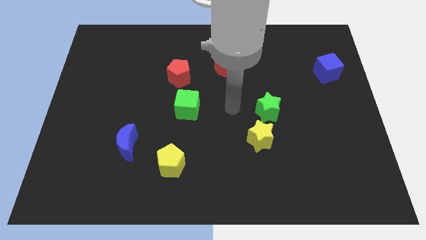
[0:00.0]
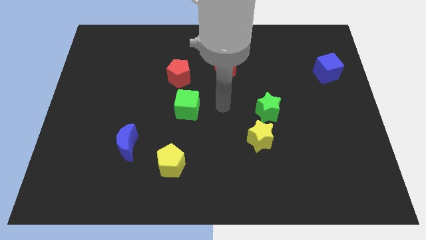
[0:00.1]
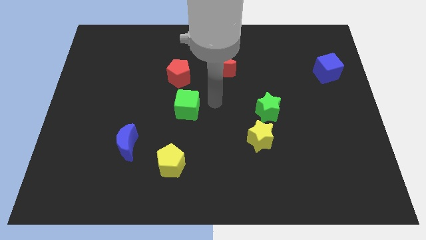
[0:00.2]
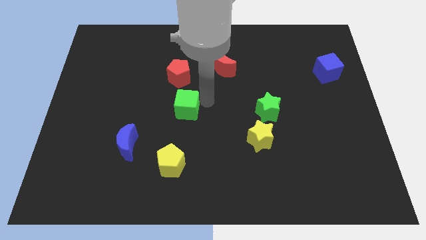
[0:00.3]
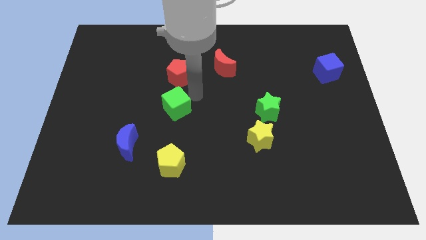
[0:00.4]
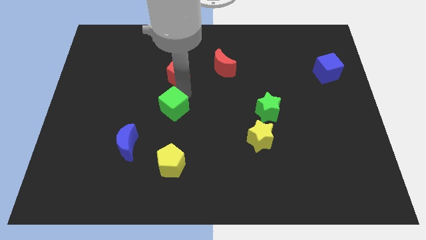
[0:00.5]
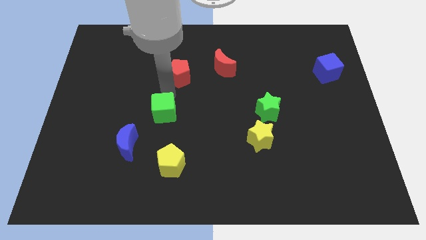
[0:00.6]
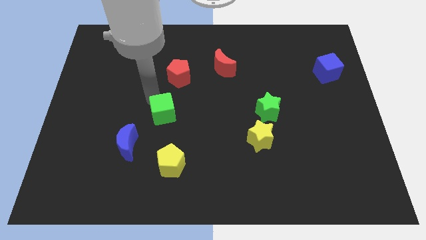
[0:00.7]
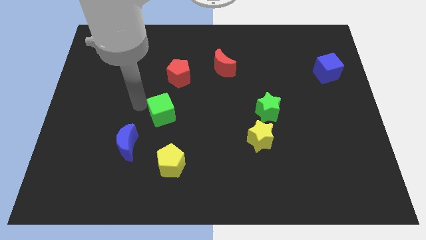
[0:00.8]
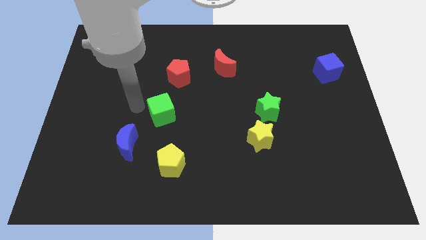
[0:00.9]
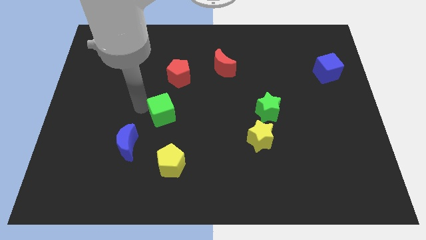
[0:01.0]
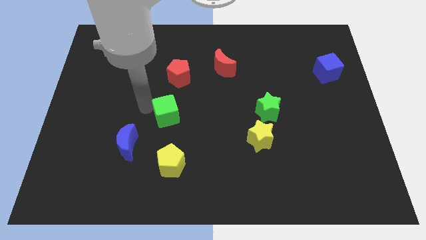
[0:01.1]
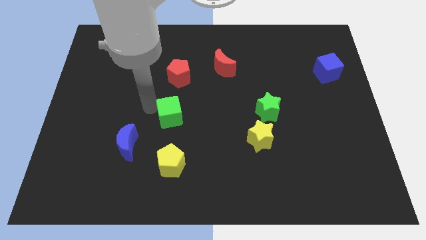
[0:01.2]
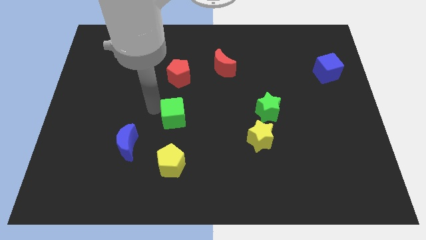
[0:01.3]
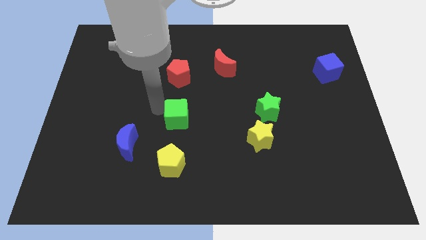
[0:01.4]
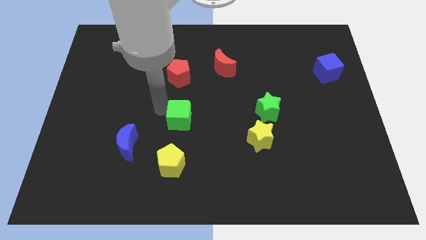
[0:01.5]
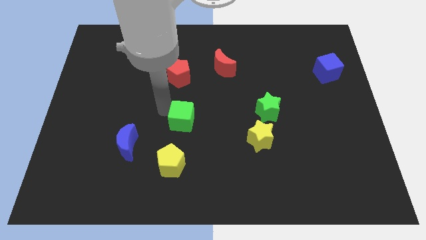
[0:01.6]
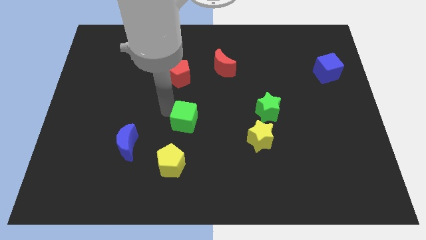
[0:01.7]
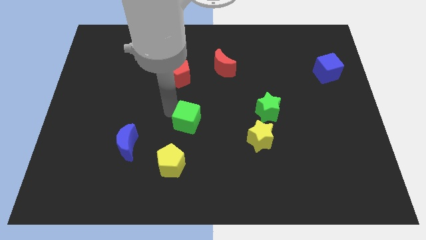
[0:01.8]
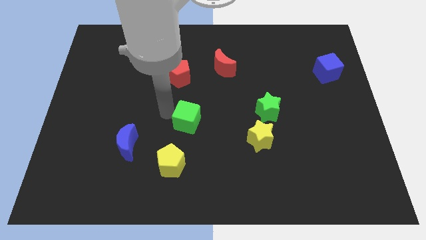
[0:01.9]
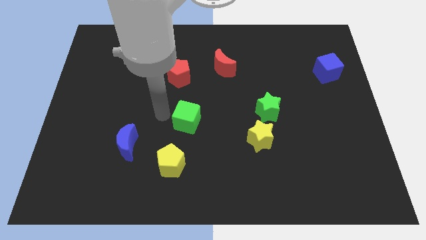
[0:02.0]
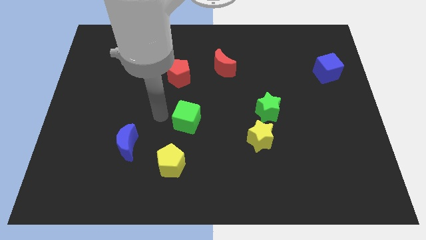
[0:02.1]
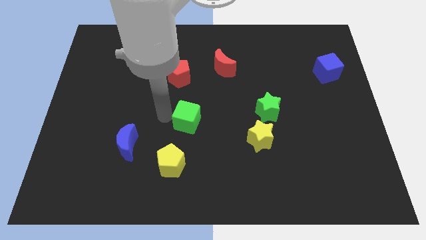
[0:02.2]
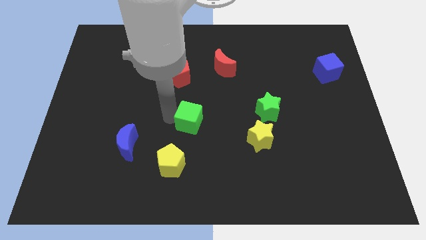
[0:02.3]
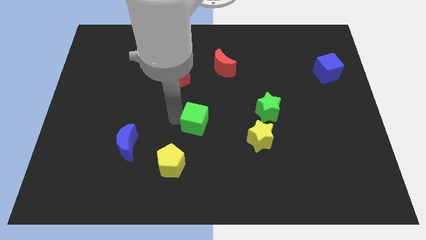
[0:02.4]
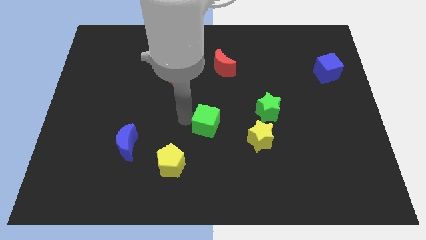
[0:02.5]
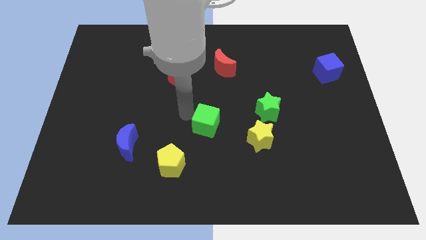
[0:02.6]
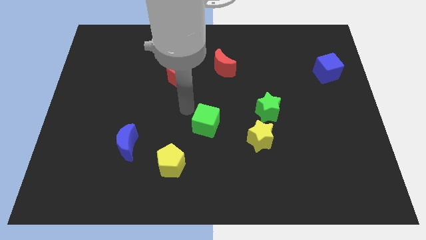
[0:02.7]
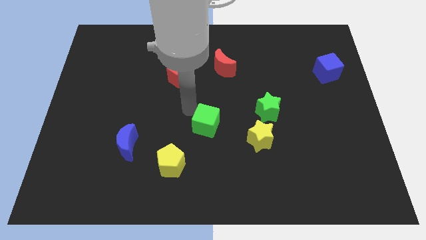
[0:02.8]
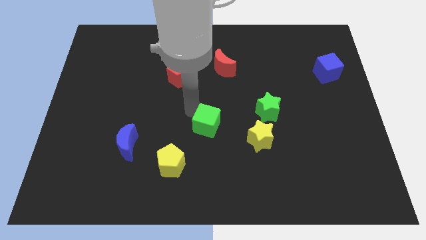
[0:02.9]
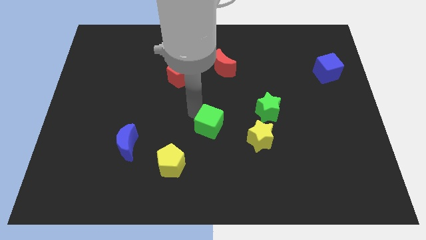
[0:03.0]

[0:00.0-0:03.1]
slightly move the green cube downwards and to the right

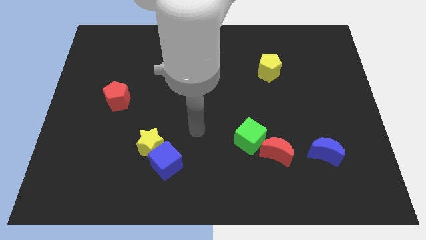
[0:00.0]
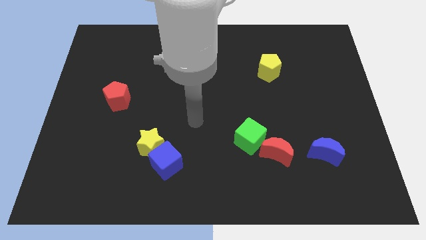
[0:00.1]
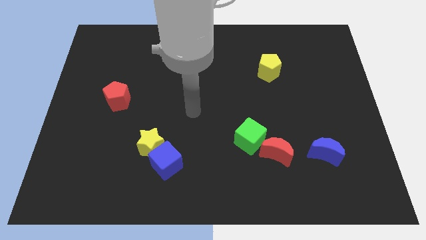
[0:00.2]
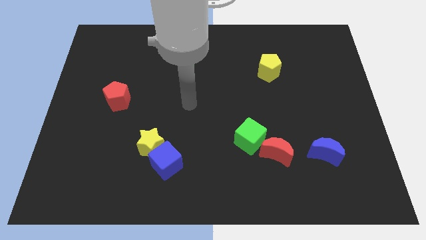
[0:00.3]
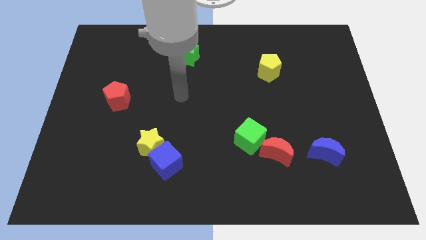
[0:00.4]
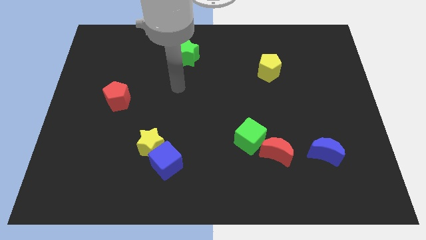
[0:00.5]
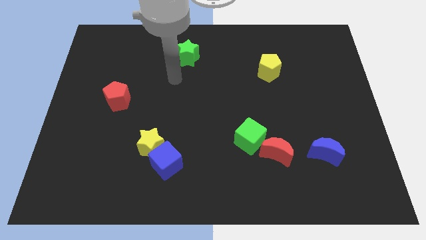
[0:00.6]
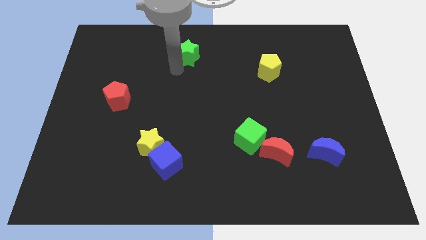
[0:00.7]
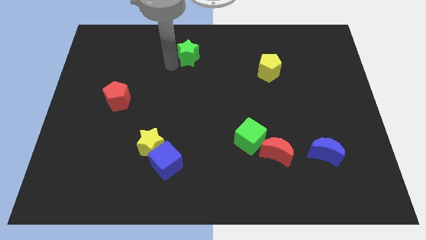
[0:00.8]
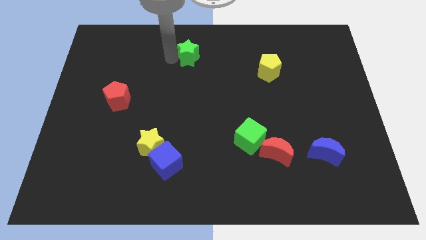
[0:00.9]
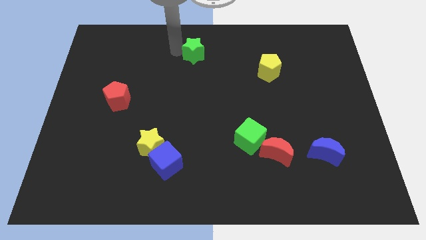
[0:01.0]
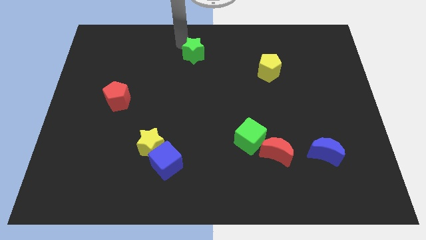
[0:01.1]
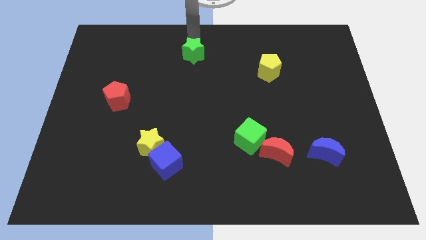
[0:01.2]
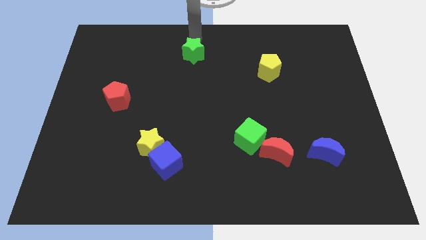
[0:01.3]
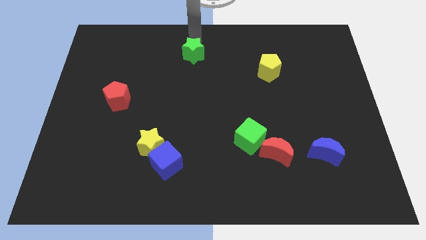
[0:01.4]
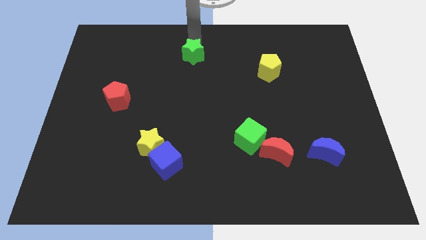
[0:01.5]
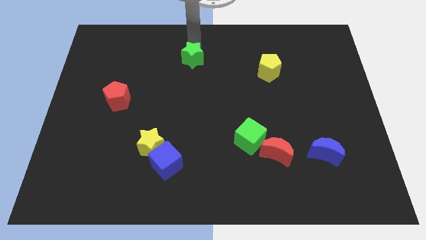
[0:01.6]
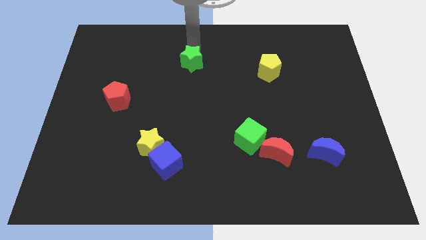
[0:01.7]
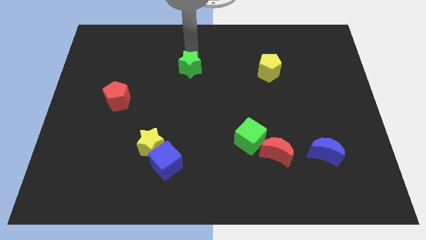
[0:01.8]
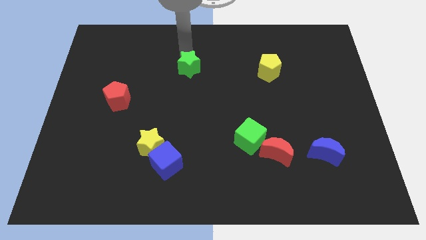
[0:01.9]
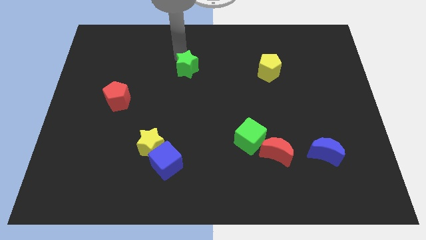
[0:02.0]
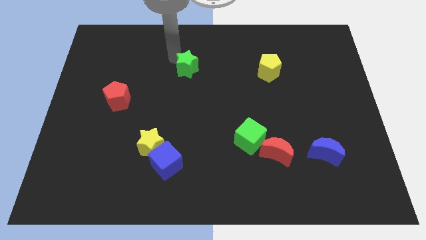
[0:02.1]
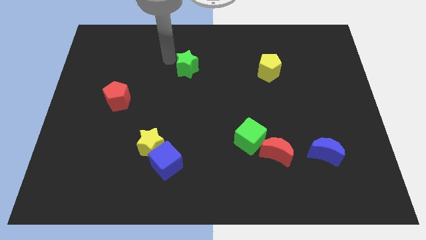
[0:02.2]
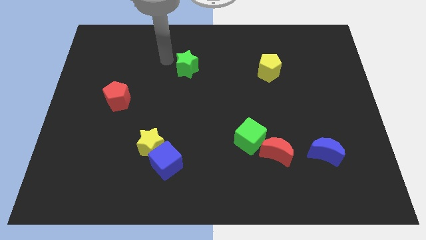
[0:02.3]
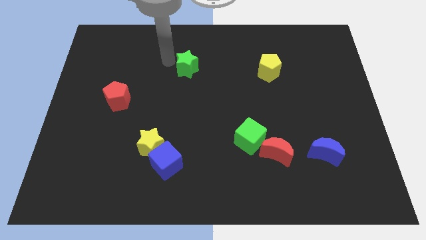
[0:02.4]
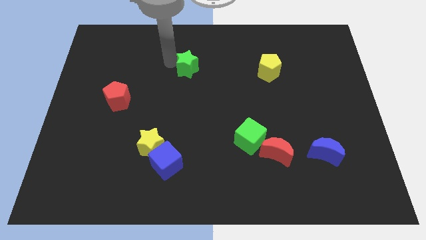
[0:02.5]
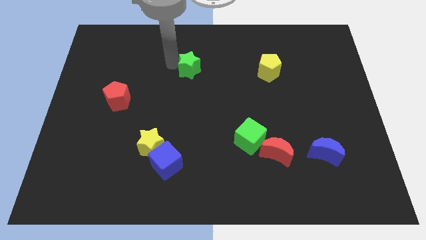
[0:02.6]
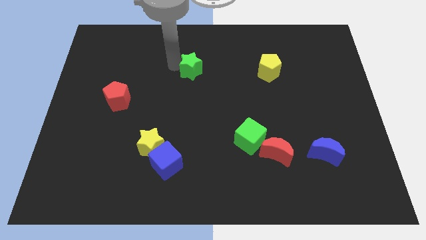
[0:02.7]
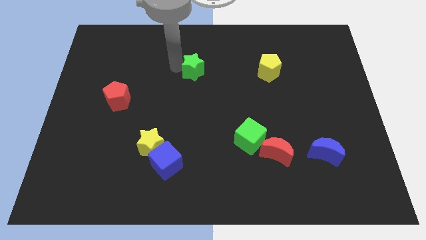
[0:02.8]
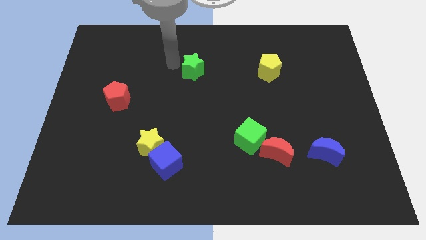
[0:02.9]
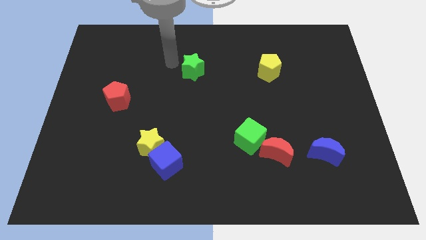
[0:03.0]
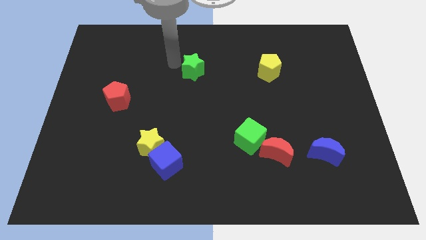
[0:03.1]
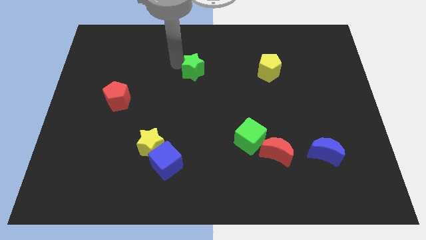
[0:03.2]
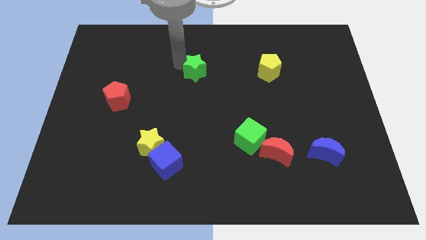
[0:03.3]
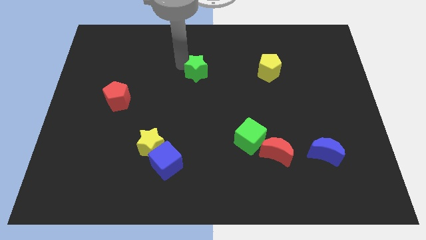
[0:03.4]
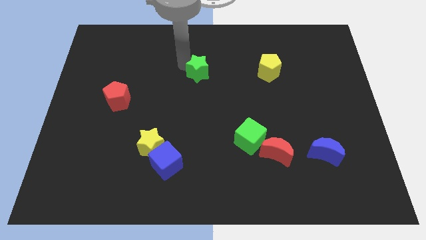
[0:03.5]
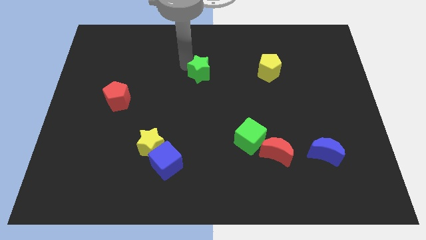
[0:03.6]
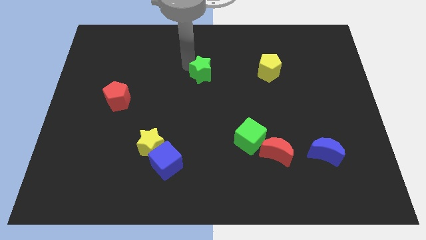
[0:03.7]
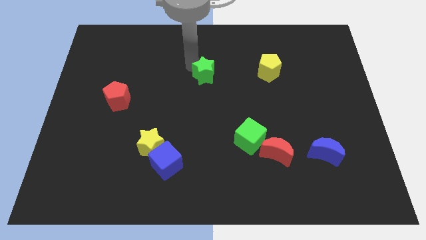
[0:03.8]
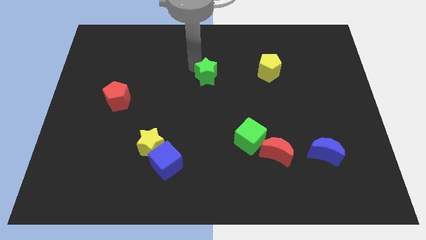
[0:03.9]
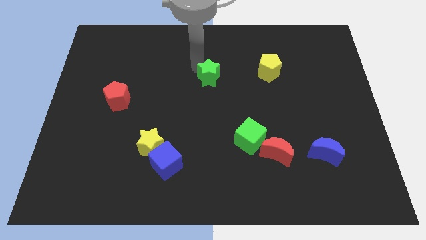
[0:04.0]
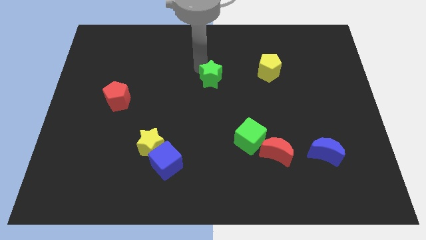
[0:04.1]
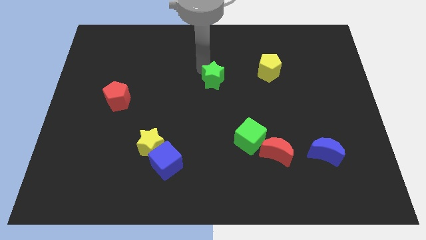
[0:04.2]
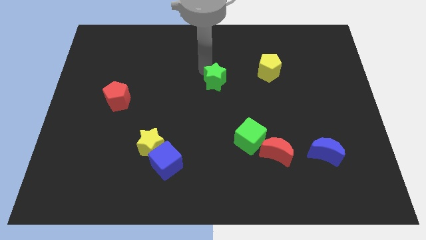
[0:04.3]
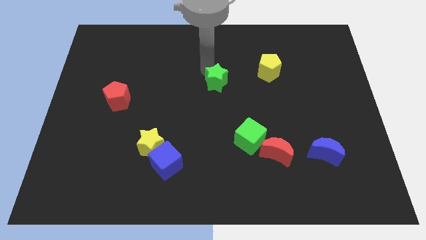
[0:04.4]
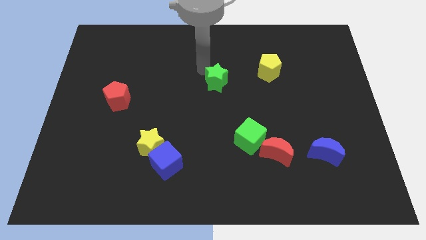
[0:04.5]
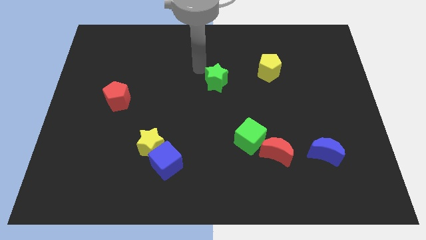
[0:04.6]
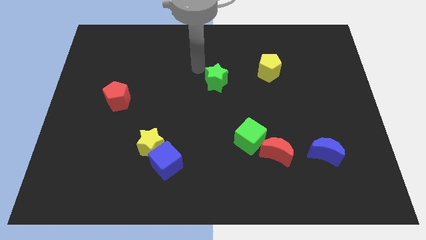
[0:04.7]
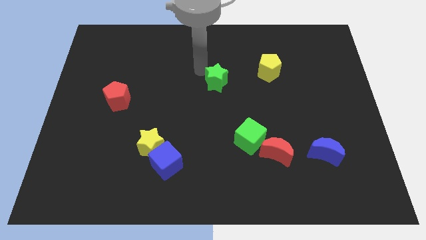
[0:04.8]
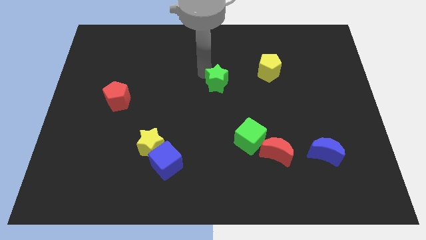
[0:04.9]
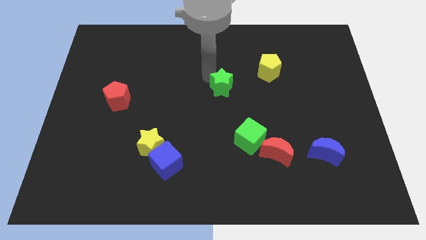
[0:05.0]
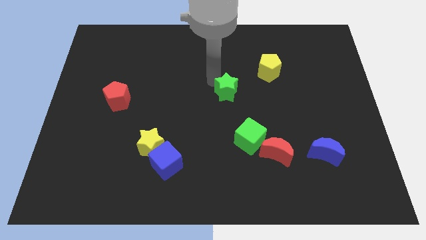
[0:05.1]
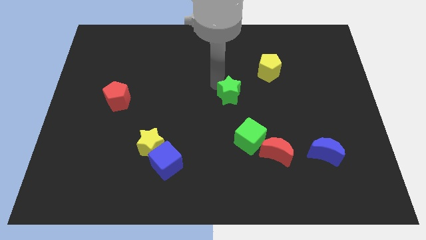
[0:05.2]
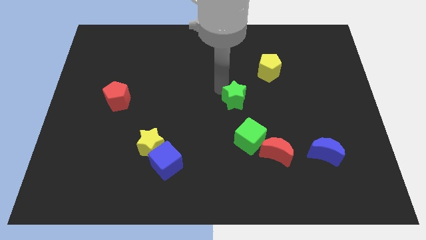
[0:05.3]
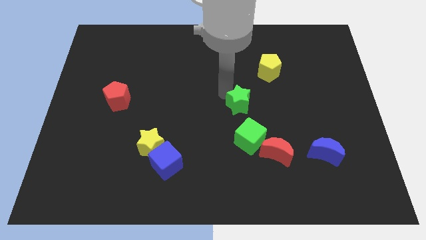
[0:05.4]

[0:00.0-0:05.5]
push the green star downwards and then right
